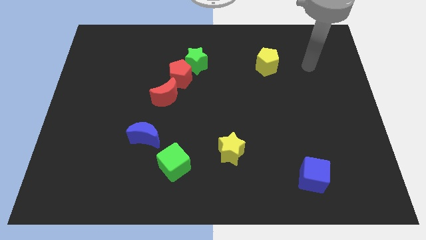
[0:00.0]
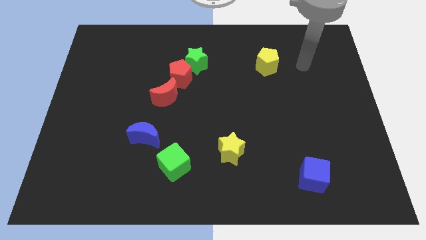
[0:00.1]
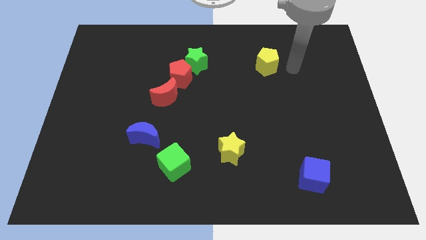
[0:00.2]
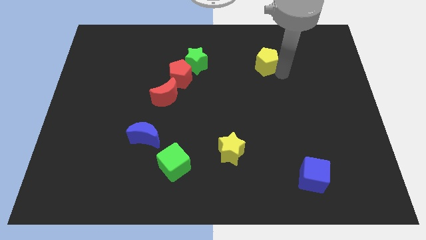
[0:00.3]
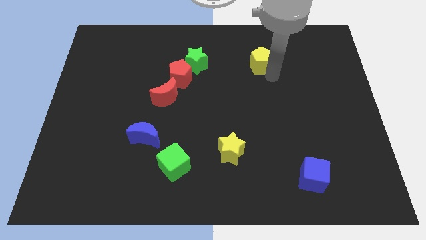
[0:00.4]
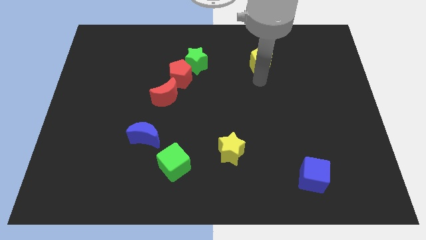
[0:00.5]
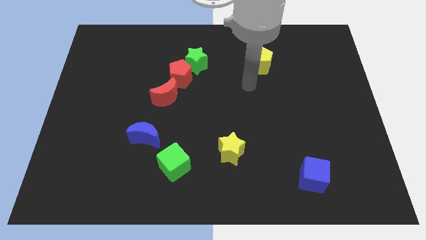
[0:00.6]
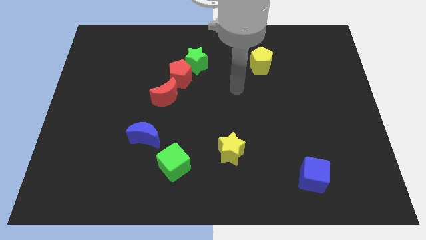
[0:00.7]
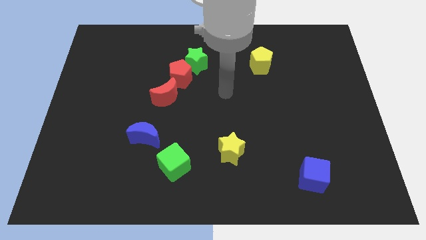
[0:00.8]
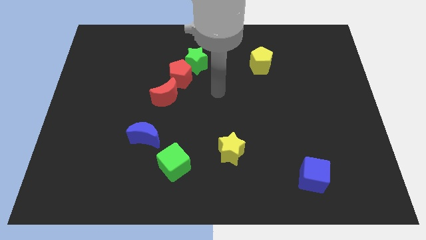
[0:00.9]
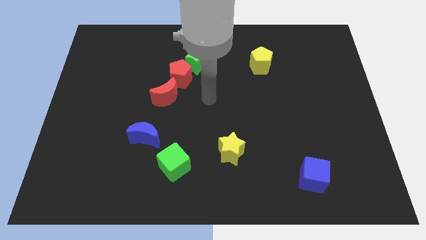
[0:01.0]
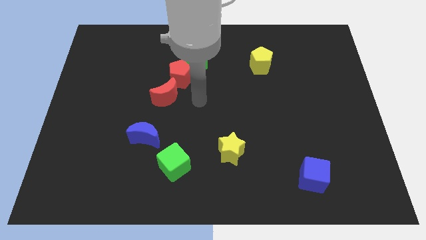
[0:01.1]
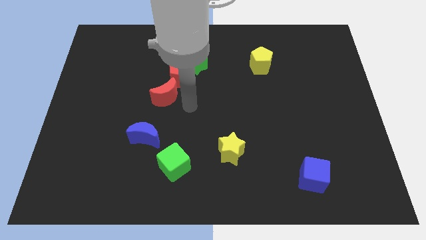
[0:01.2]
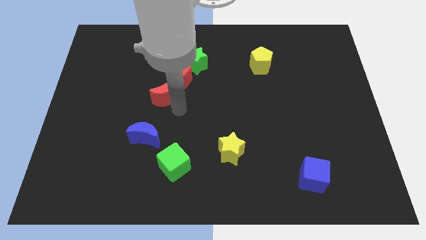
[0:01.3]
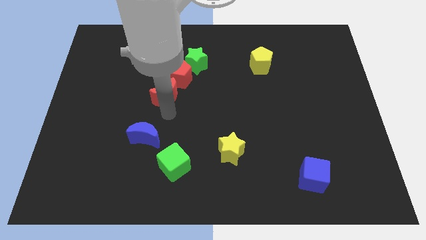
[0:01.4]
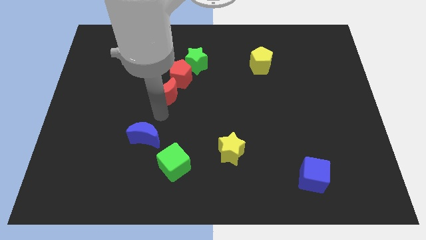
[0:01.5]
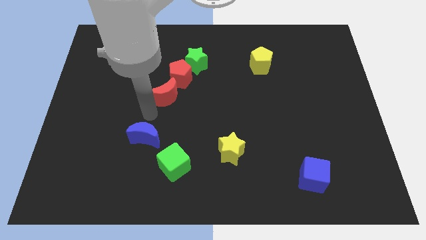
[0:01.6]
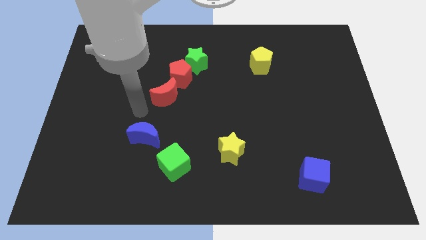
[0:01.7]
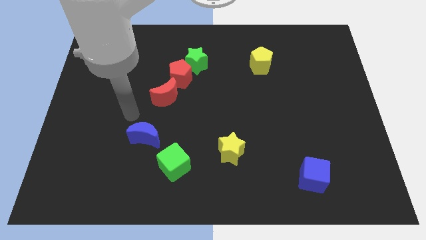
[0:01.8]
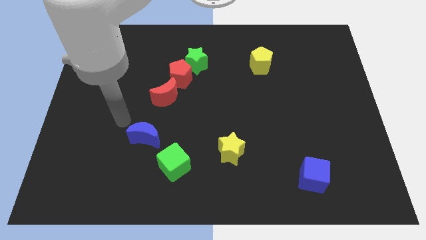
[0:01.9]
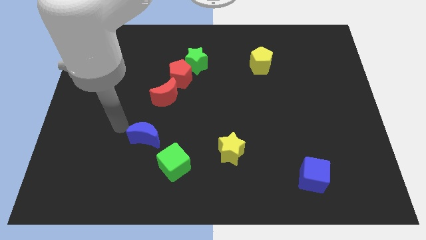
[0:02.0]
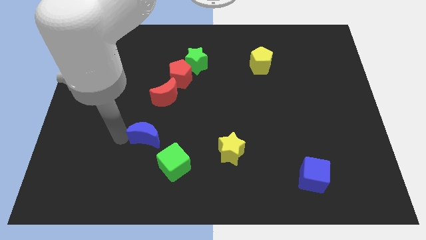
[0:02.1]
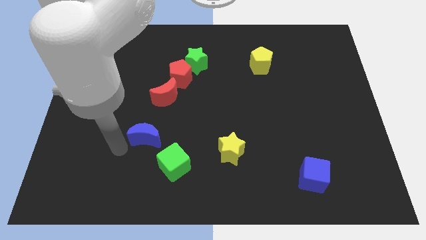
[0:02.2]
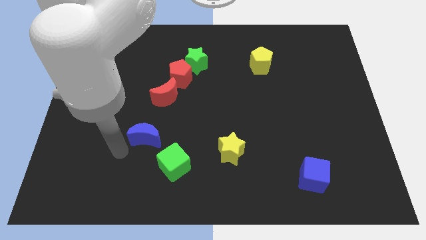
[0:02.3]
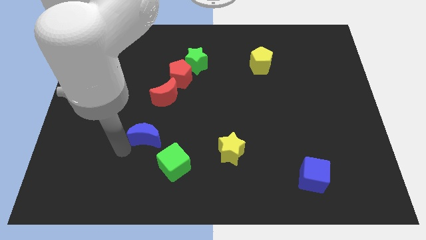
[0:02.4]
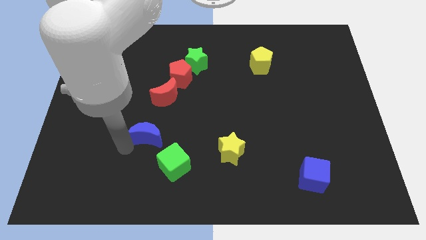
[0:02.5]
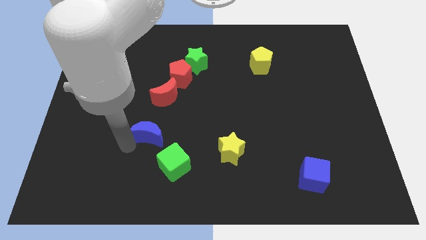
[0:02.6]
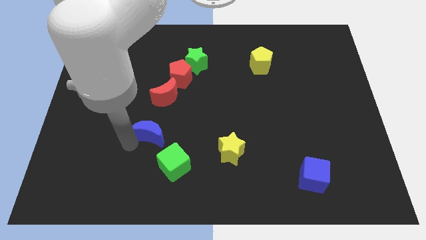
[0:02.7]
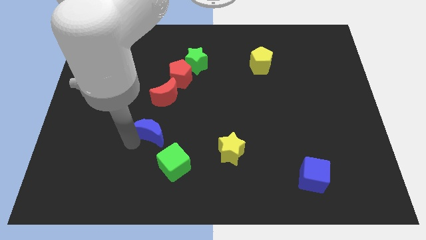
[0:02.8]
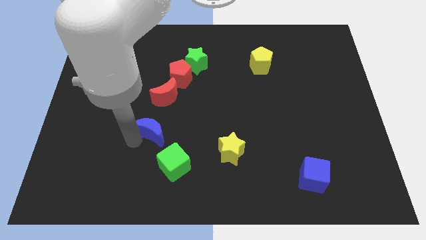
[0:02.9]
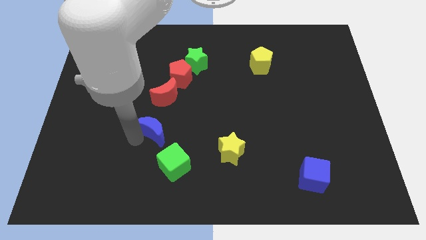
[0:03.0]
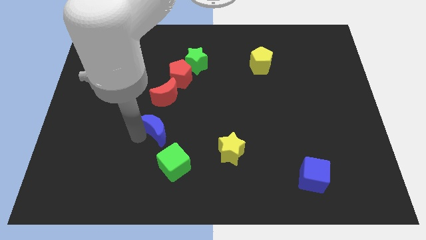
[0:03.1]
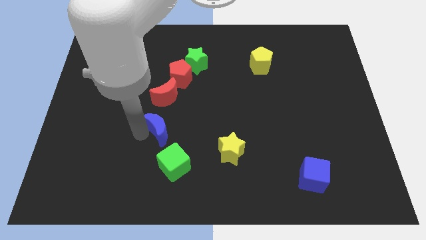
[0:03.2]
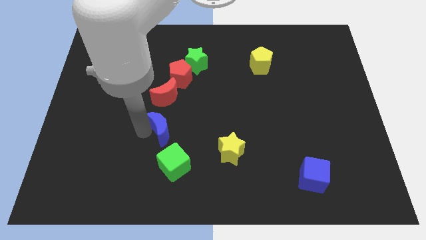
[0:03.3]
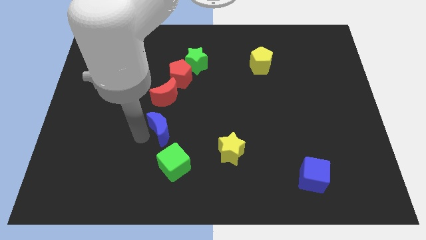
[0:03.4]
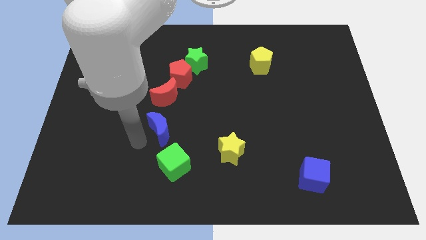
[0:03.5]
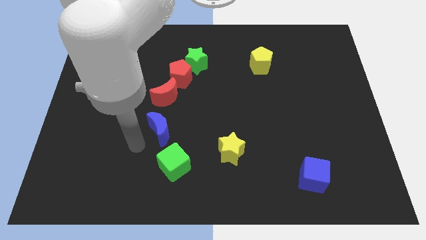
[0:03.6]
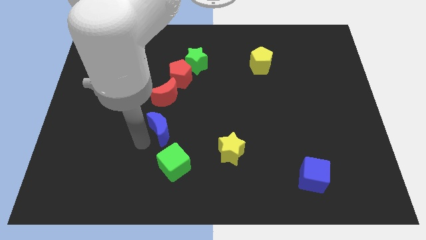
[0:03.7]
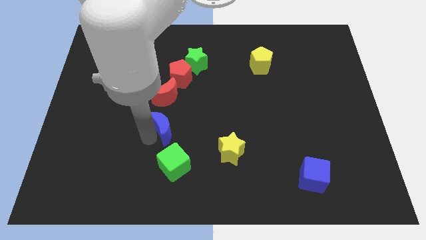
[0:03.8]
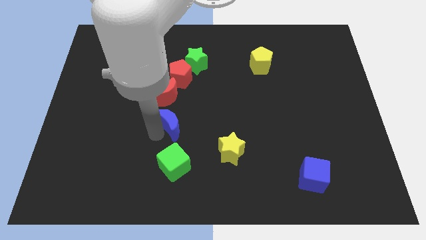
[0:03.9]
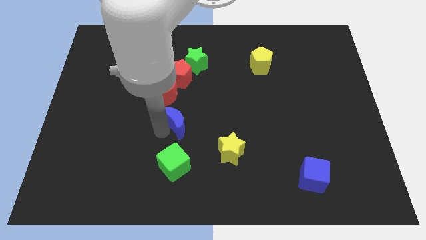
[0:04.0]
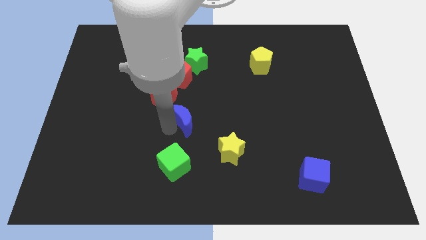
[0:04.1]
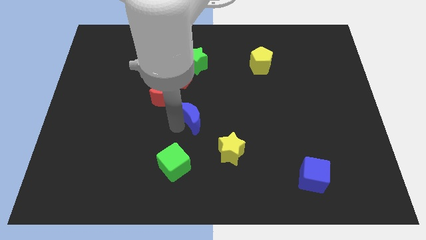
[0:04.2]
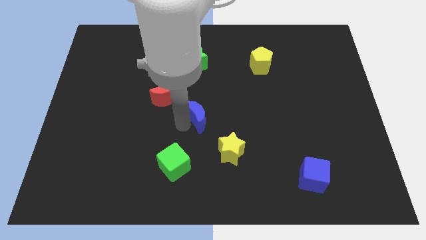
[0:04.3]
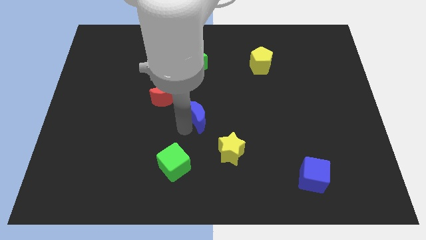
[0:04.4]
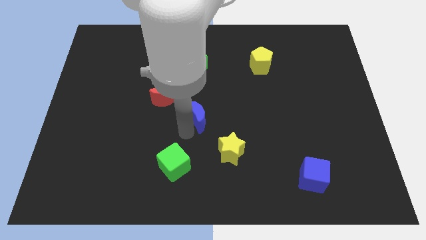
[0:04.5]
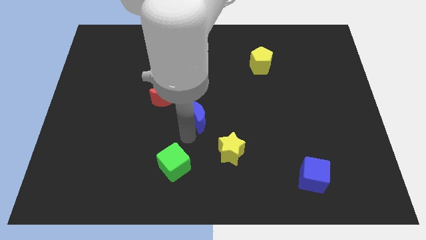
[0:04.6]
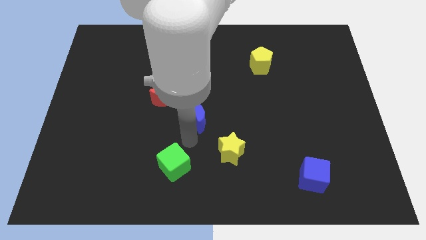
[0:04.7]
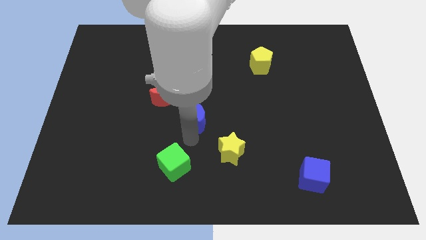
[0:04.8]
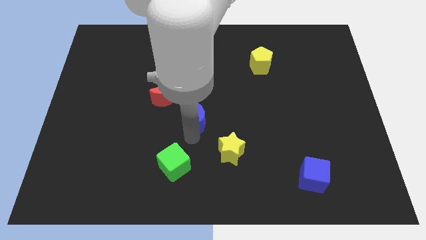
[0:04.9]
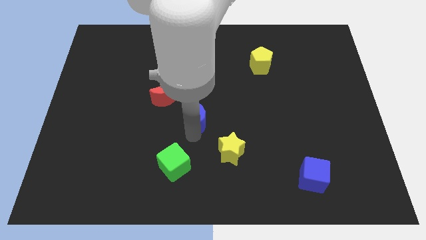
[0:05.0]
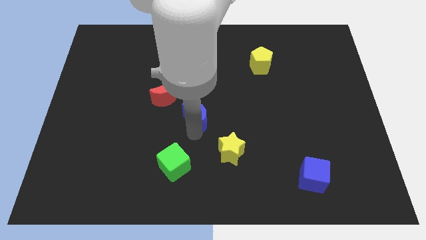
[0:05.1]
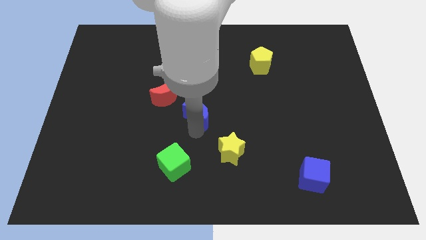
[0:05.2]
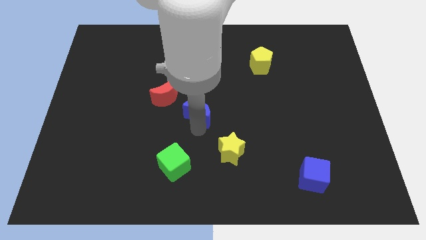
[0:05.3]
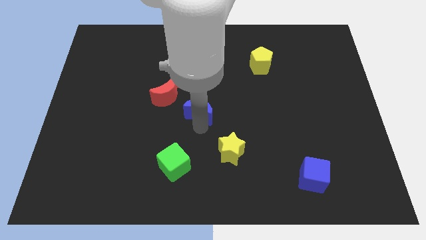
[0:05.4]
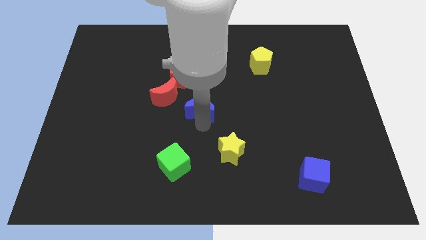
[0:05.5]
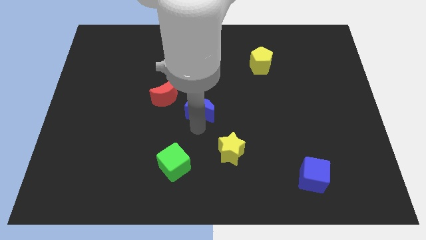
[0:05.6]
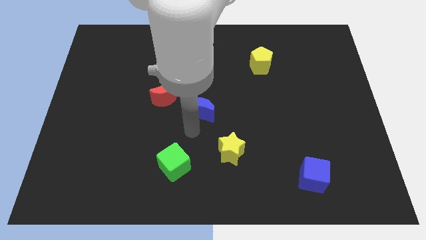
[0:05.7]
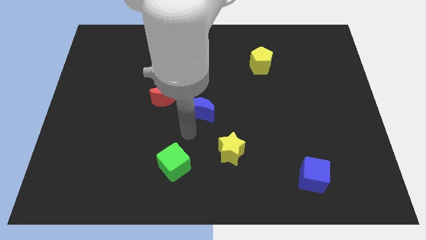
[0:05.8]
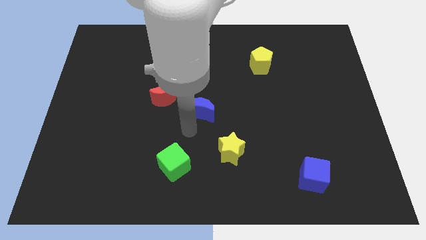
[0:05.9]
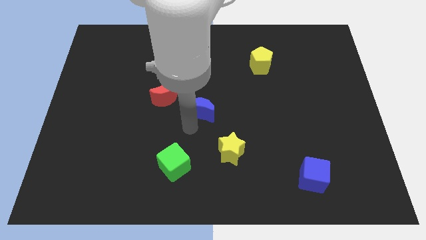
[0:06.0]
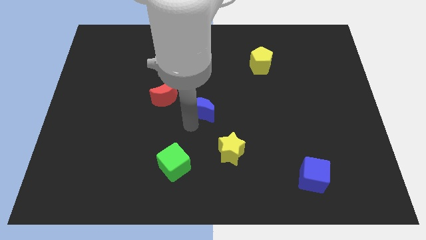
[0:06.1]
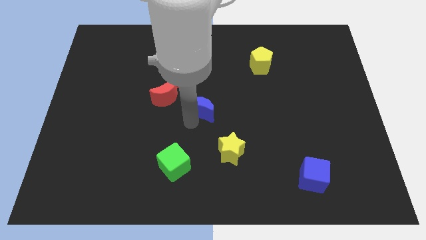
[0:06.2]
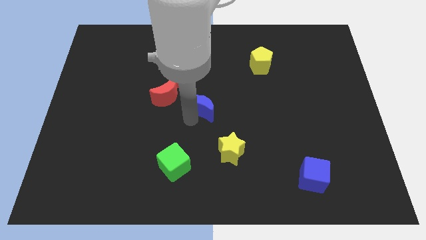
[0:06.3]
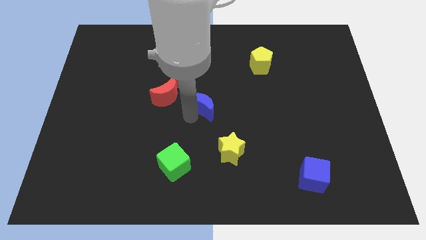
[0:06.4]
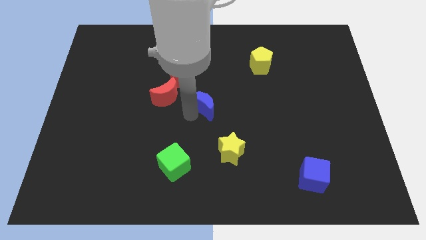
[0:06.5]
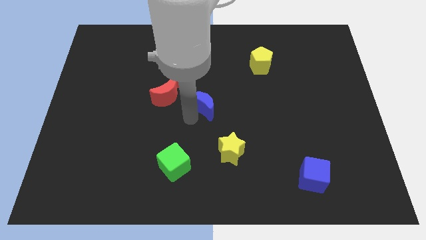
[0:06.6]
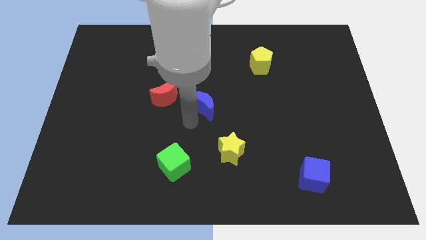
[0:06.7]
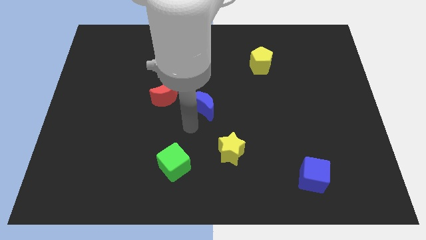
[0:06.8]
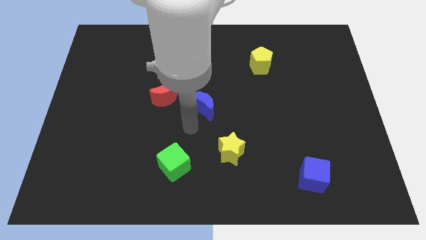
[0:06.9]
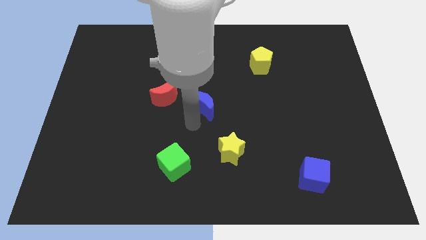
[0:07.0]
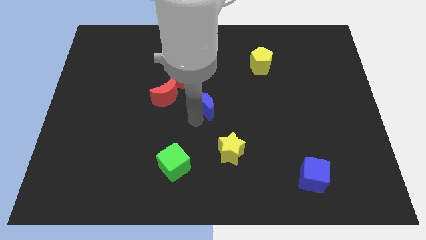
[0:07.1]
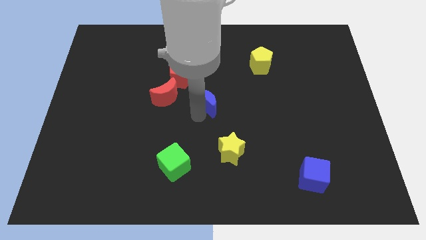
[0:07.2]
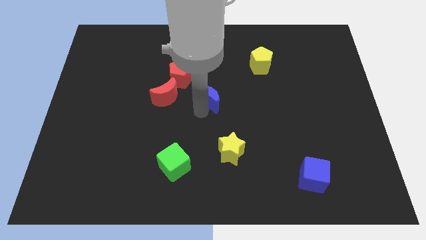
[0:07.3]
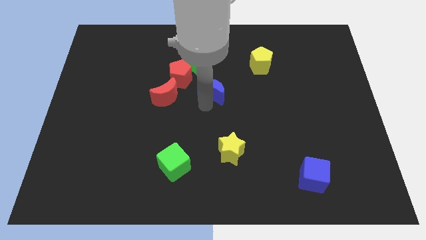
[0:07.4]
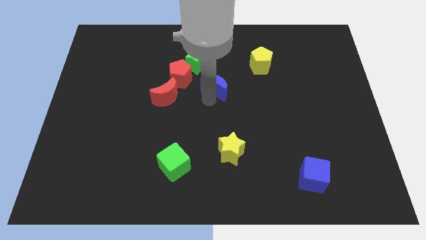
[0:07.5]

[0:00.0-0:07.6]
move the blue moon to the right of the red pentagon
